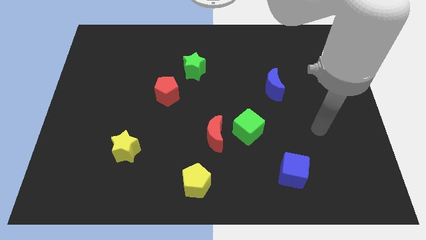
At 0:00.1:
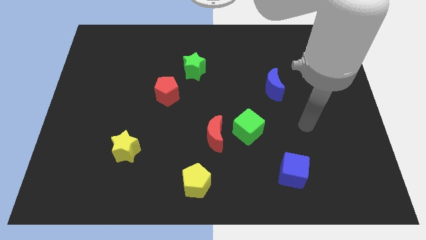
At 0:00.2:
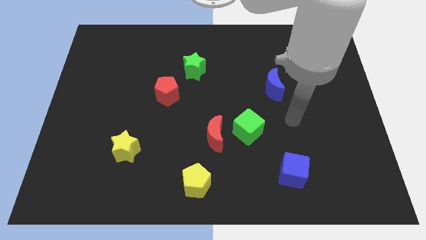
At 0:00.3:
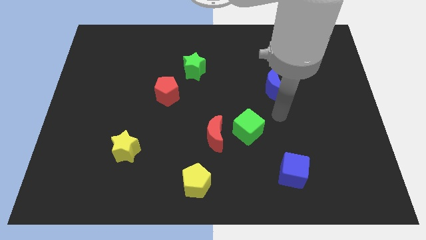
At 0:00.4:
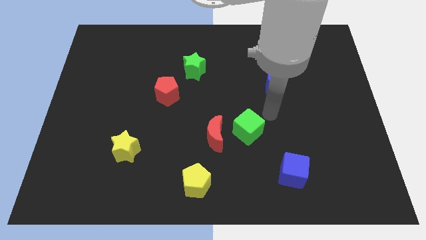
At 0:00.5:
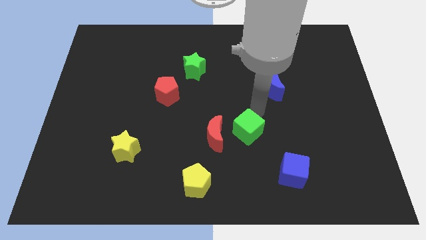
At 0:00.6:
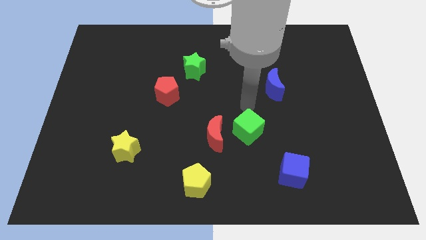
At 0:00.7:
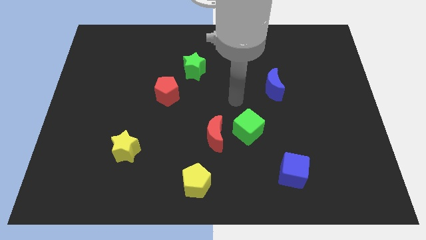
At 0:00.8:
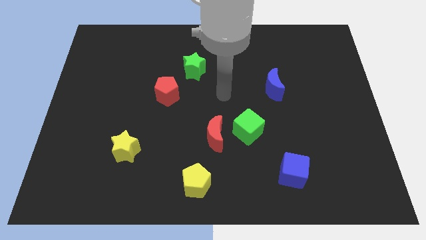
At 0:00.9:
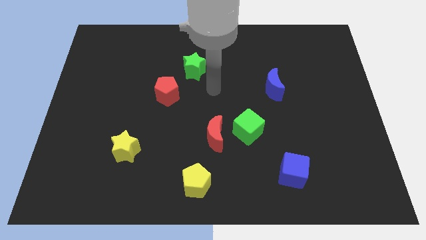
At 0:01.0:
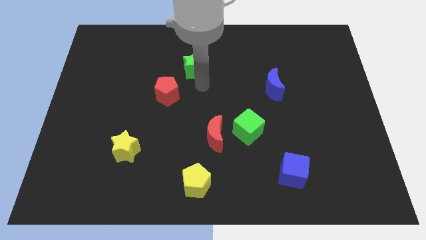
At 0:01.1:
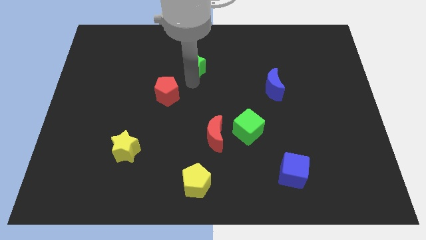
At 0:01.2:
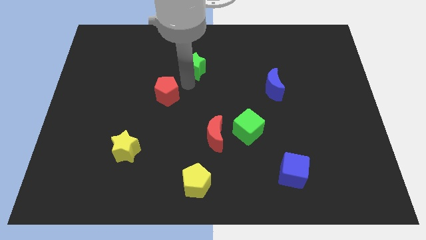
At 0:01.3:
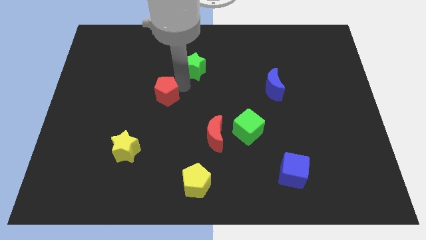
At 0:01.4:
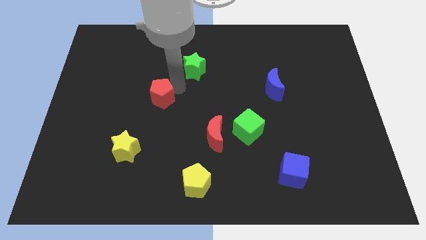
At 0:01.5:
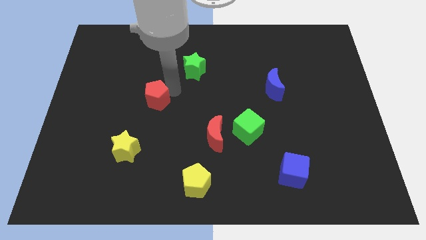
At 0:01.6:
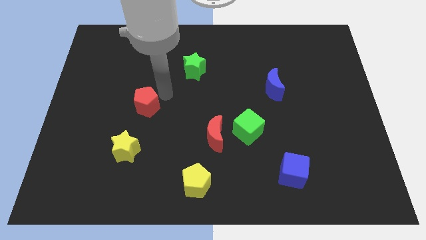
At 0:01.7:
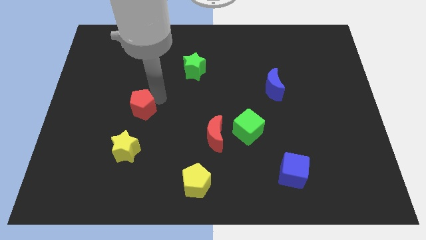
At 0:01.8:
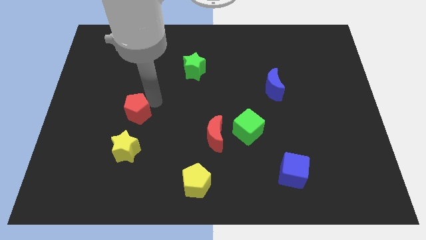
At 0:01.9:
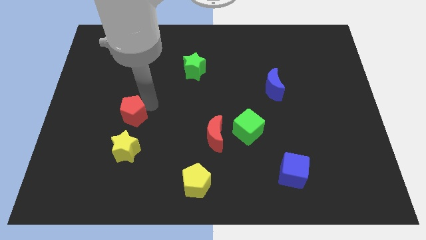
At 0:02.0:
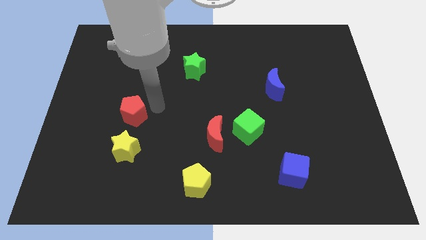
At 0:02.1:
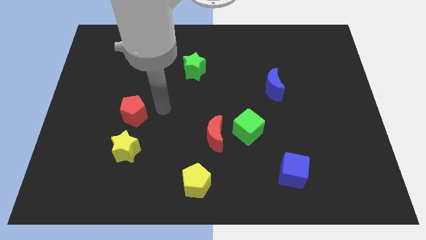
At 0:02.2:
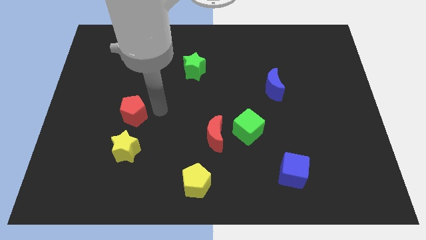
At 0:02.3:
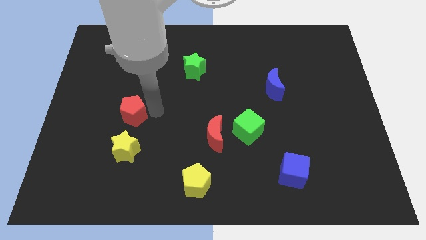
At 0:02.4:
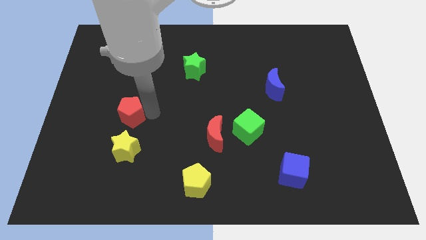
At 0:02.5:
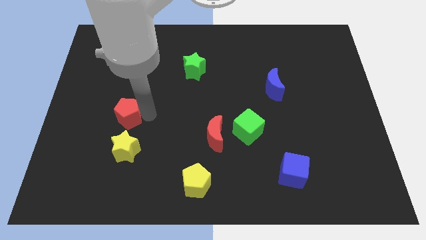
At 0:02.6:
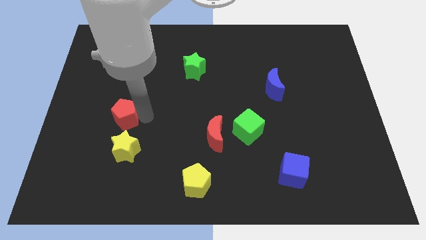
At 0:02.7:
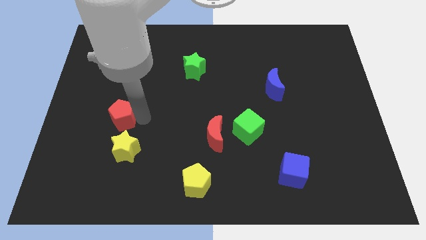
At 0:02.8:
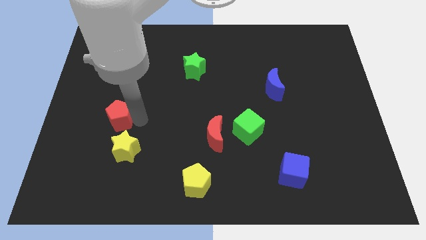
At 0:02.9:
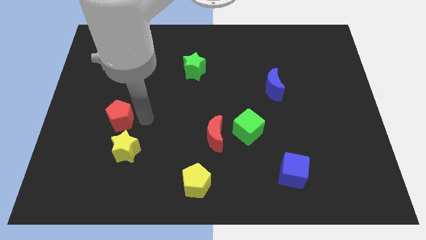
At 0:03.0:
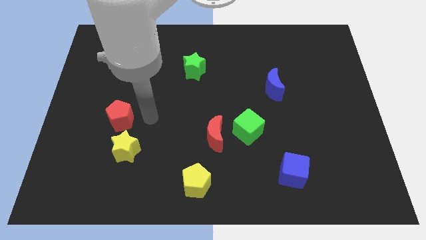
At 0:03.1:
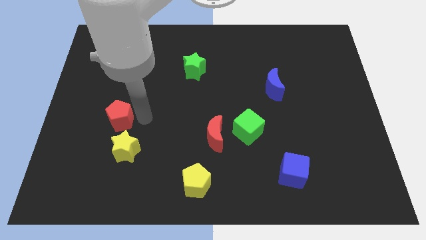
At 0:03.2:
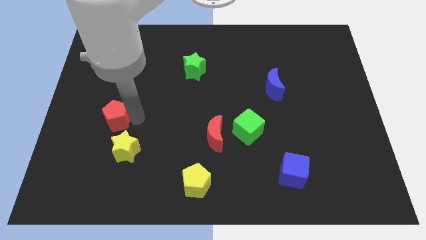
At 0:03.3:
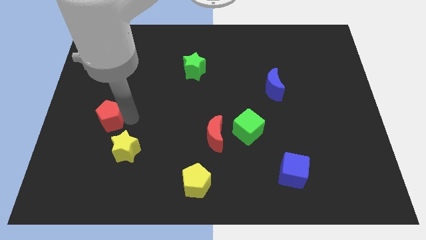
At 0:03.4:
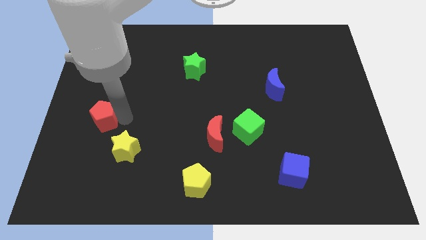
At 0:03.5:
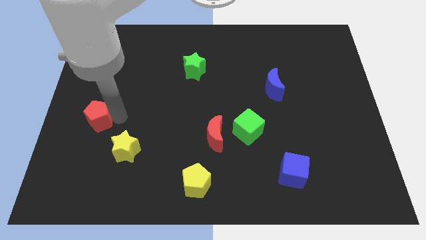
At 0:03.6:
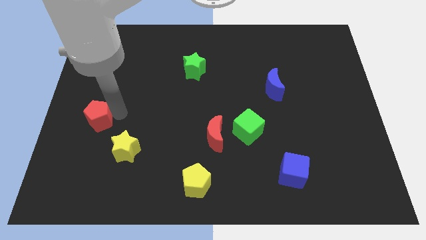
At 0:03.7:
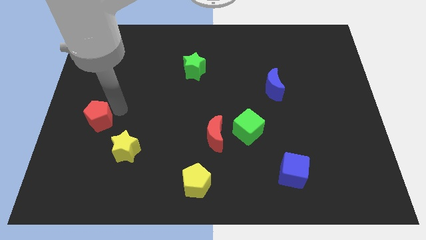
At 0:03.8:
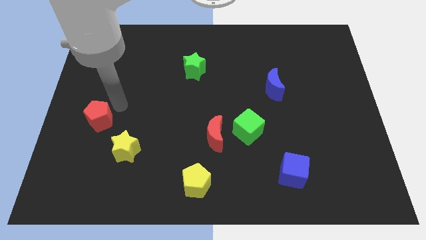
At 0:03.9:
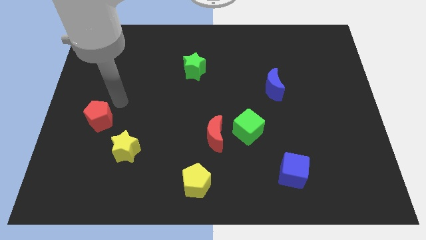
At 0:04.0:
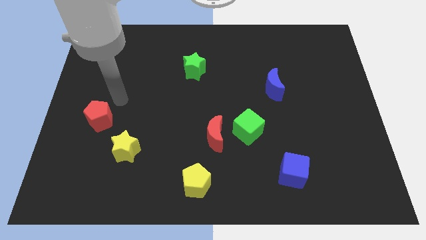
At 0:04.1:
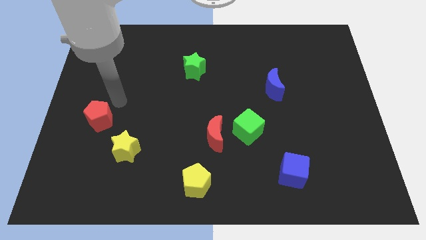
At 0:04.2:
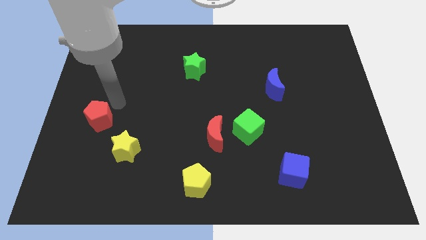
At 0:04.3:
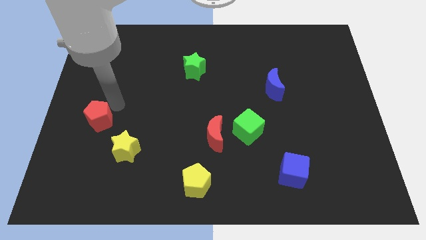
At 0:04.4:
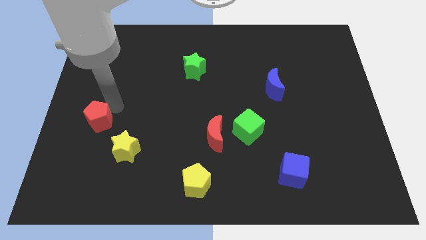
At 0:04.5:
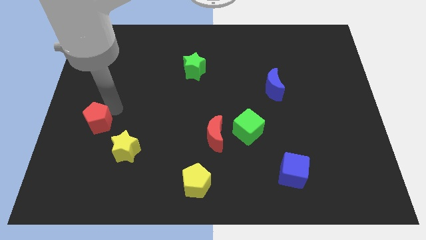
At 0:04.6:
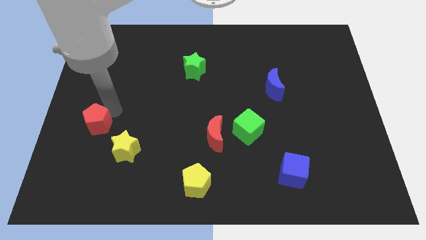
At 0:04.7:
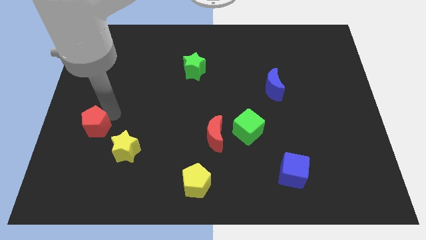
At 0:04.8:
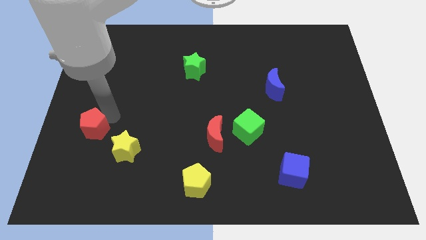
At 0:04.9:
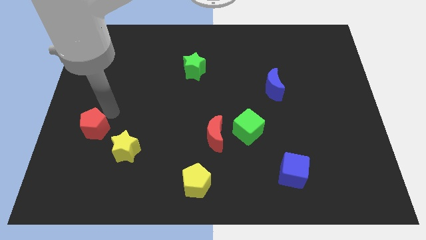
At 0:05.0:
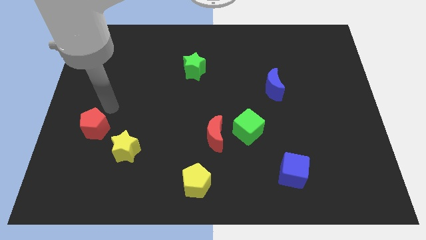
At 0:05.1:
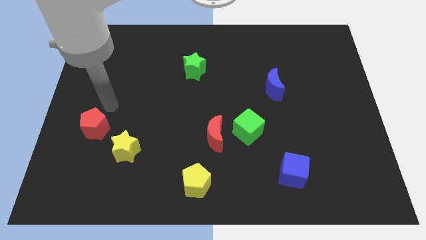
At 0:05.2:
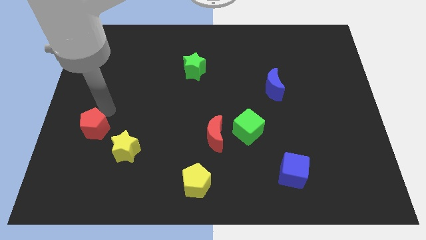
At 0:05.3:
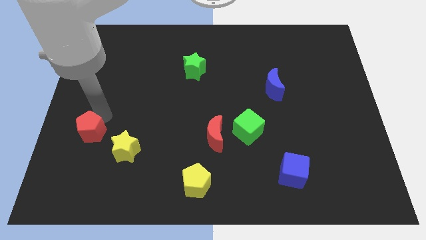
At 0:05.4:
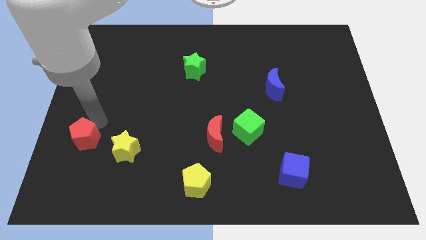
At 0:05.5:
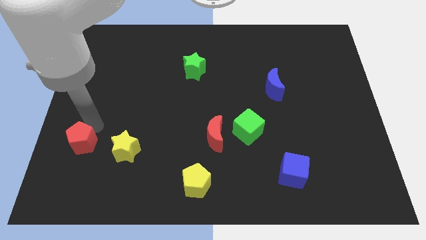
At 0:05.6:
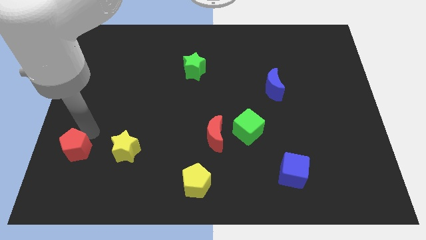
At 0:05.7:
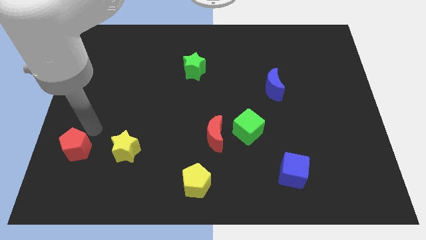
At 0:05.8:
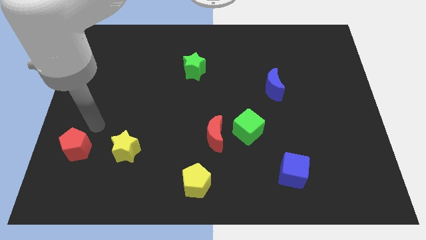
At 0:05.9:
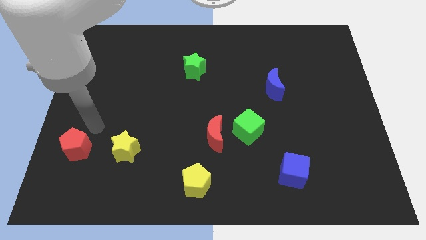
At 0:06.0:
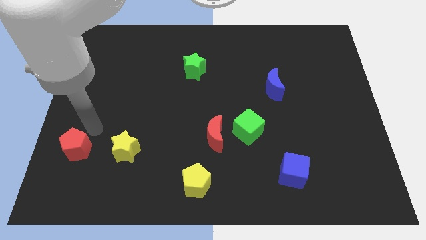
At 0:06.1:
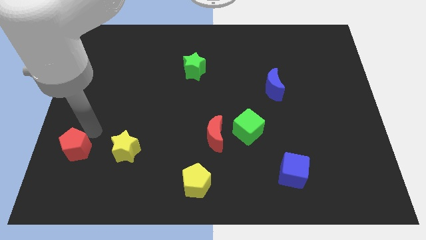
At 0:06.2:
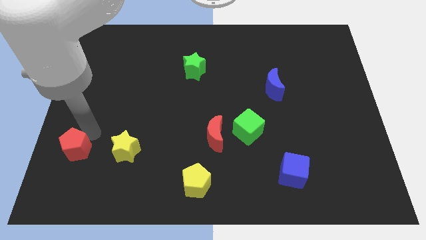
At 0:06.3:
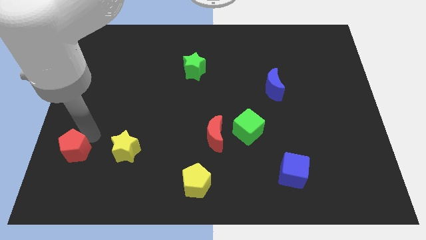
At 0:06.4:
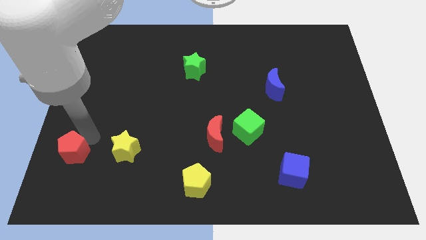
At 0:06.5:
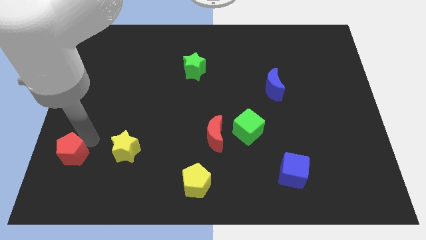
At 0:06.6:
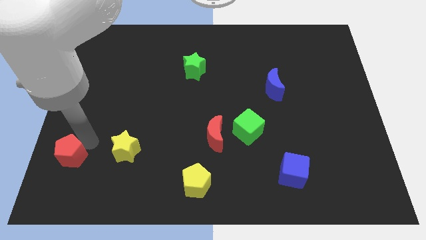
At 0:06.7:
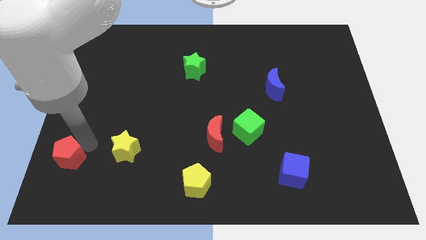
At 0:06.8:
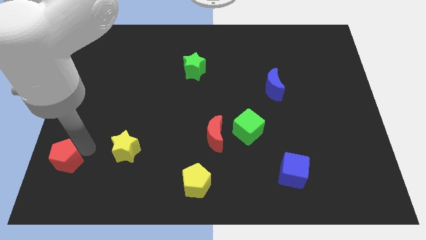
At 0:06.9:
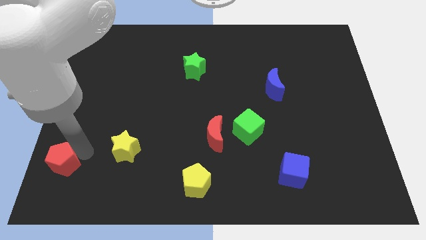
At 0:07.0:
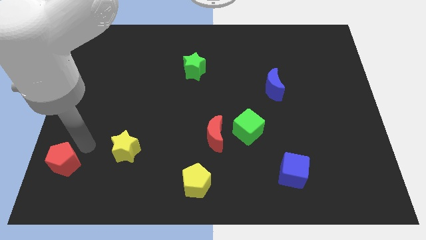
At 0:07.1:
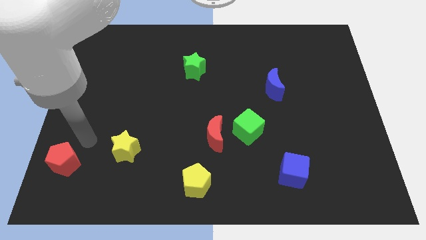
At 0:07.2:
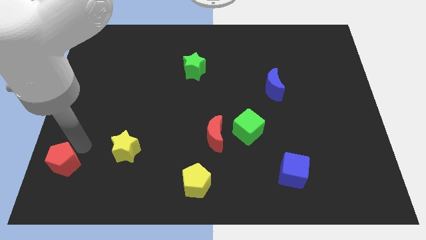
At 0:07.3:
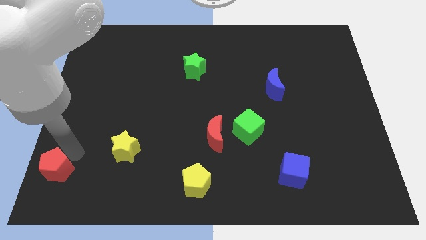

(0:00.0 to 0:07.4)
push the red pentagon to the bottom left
